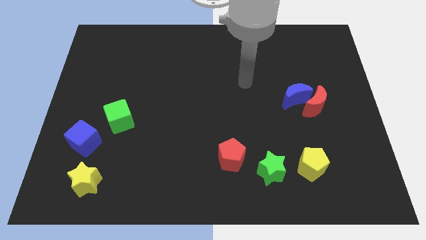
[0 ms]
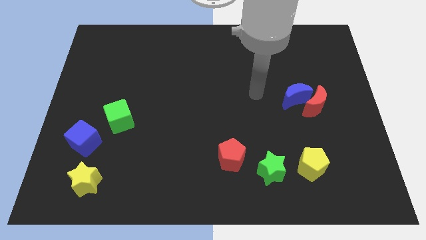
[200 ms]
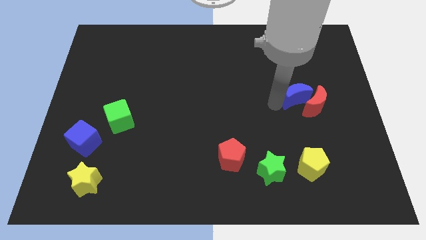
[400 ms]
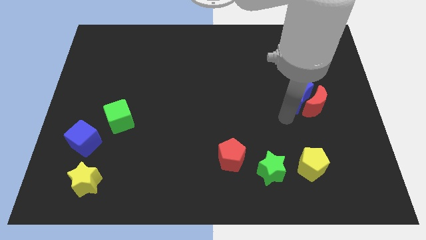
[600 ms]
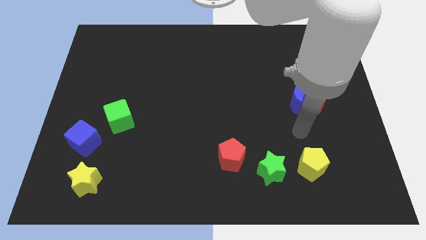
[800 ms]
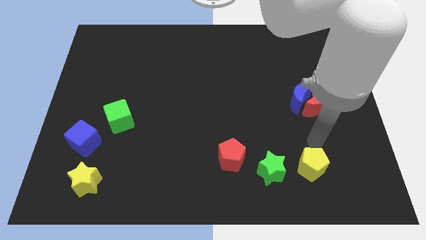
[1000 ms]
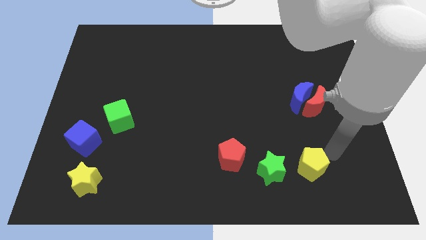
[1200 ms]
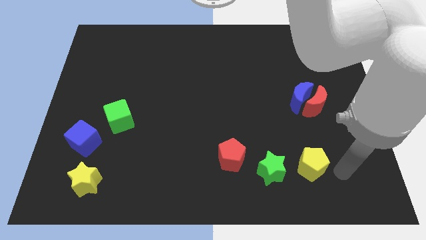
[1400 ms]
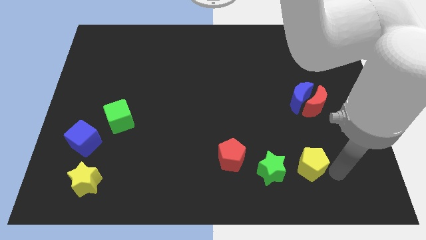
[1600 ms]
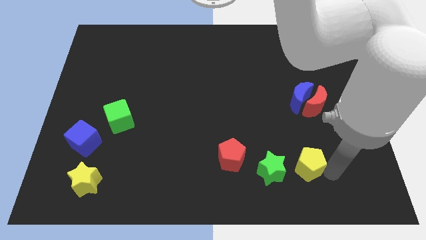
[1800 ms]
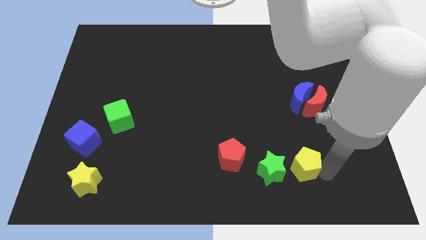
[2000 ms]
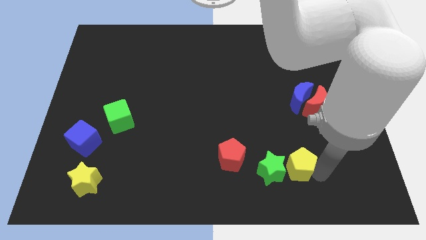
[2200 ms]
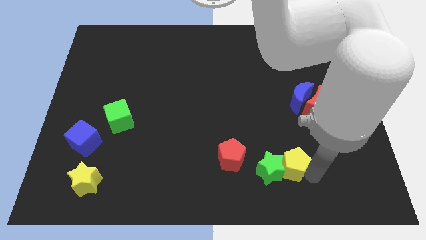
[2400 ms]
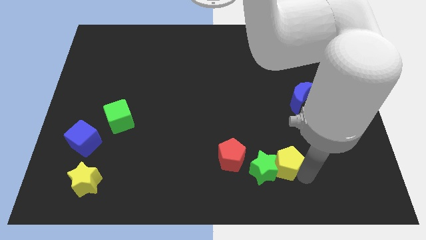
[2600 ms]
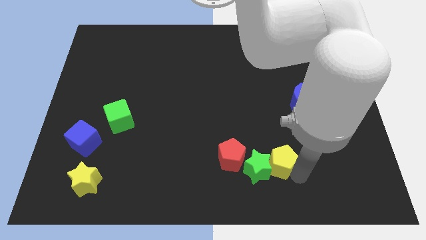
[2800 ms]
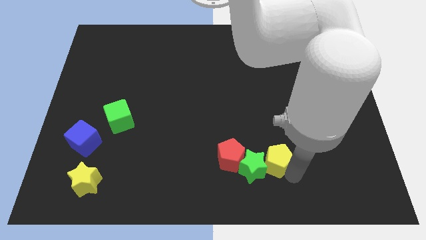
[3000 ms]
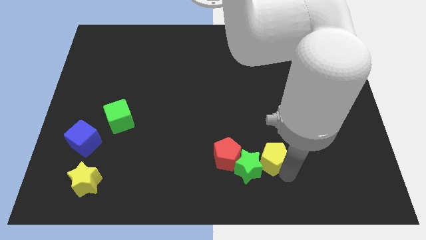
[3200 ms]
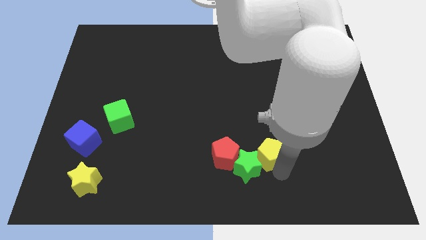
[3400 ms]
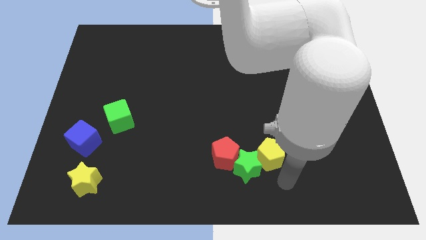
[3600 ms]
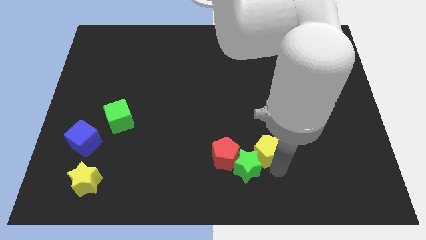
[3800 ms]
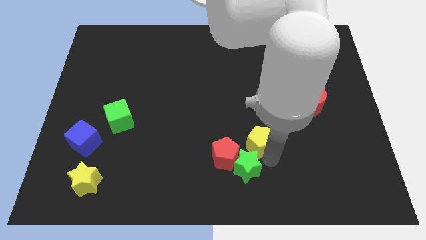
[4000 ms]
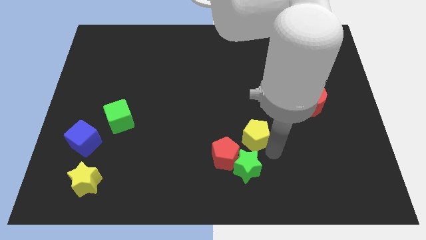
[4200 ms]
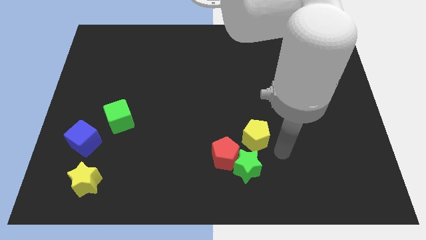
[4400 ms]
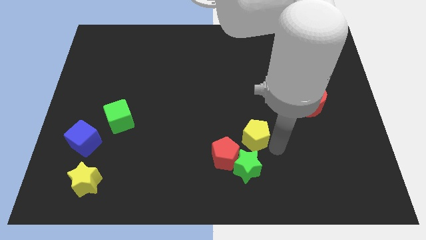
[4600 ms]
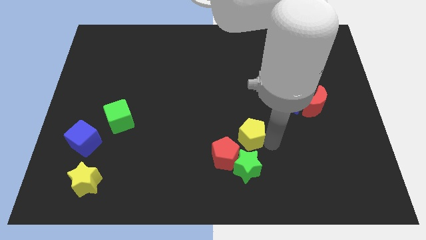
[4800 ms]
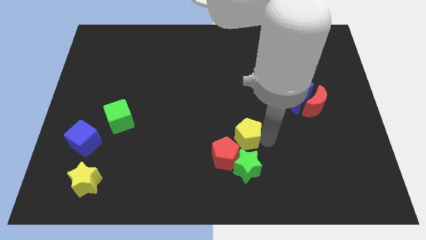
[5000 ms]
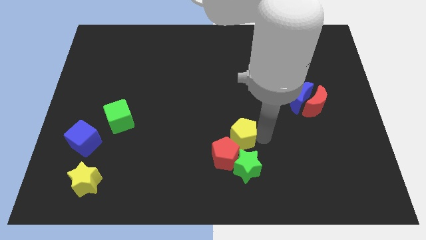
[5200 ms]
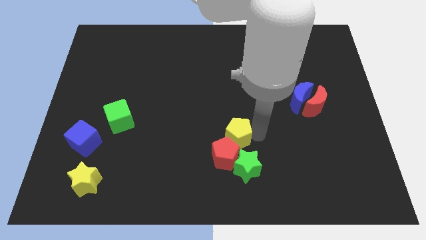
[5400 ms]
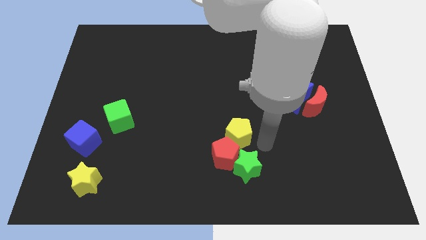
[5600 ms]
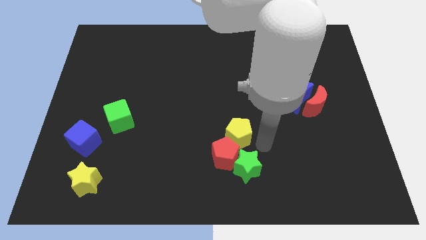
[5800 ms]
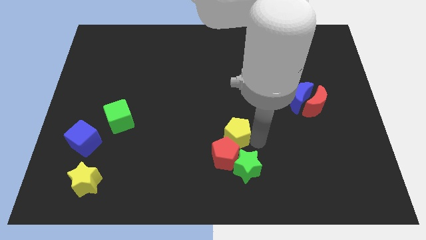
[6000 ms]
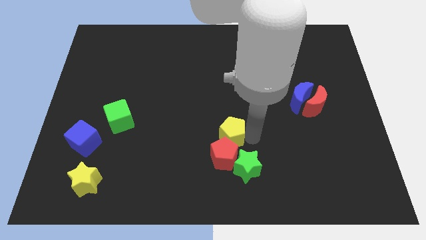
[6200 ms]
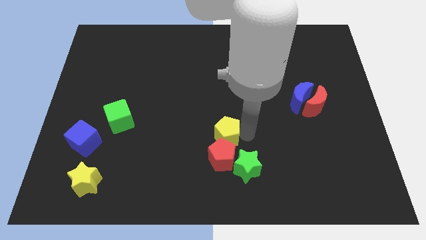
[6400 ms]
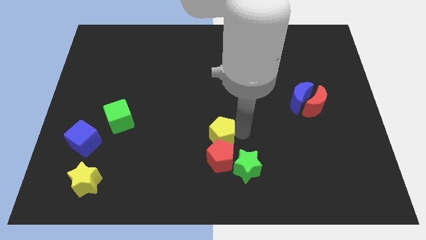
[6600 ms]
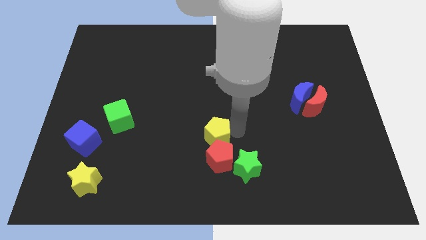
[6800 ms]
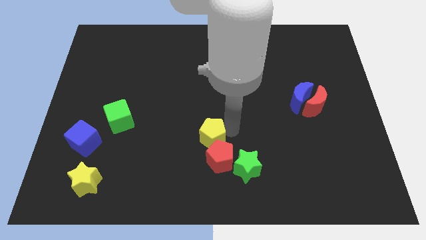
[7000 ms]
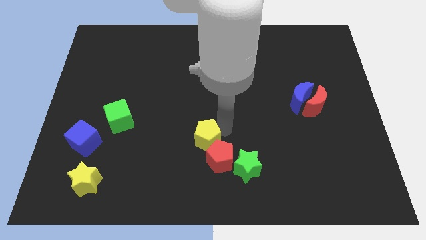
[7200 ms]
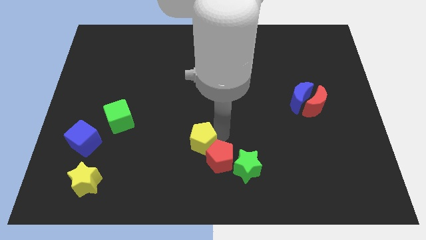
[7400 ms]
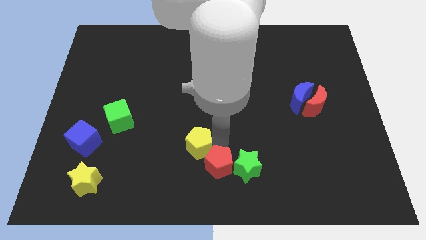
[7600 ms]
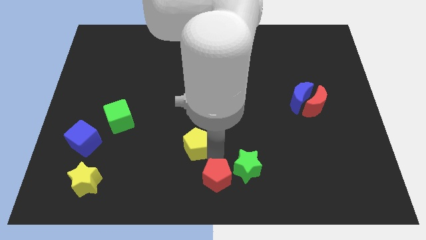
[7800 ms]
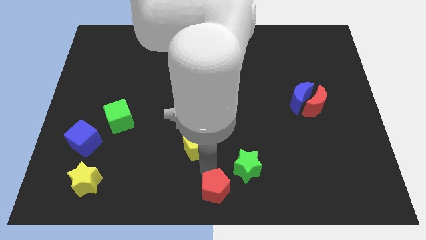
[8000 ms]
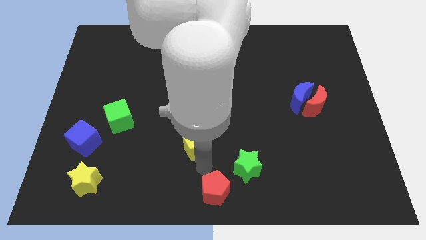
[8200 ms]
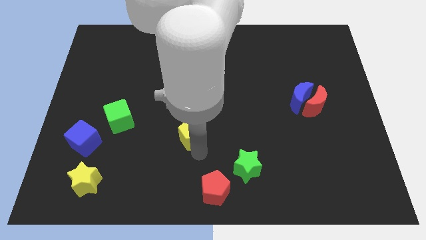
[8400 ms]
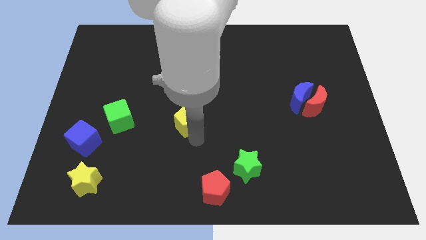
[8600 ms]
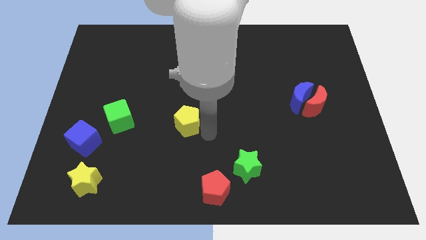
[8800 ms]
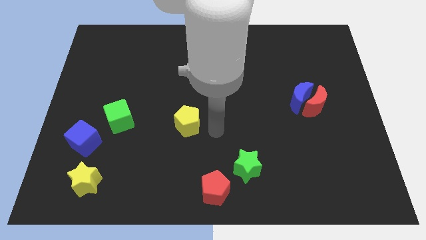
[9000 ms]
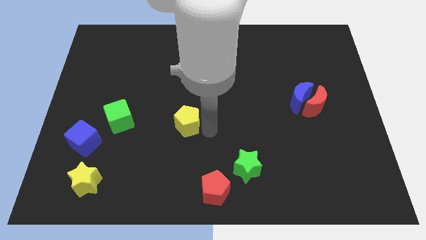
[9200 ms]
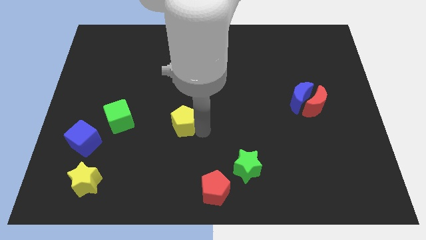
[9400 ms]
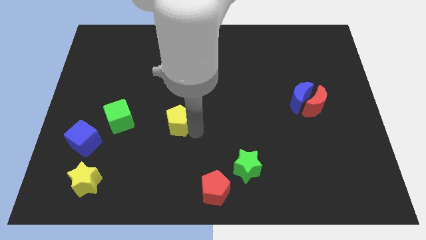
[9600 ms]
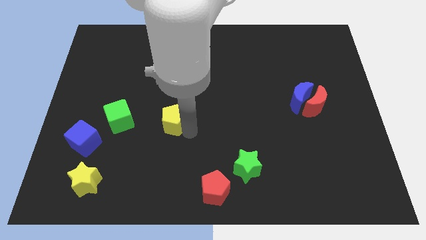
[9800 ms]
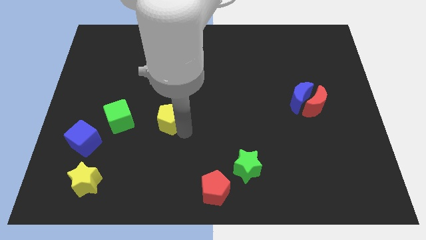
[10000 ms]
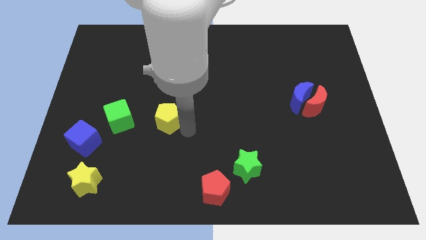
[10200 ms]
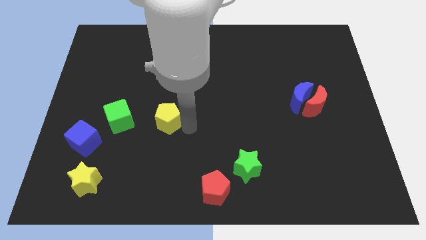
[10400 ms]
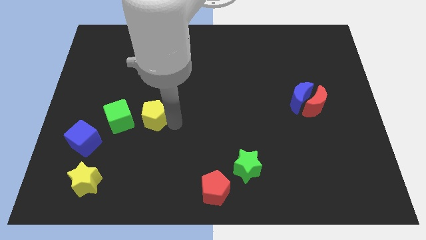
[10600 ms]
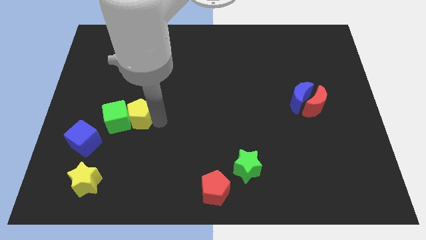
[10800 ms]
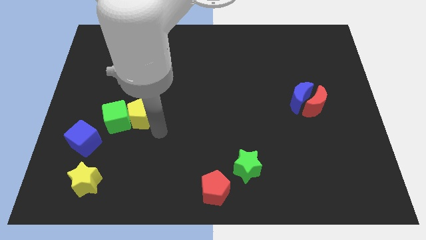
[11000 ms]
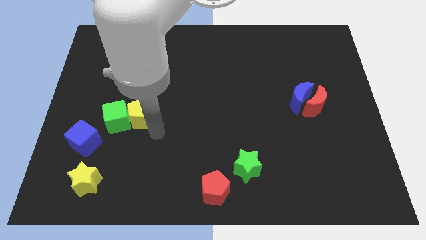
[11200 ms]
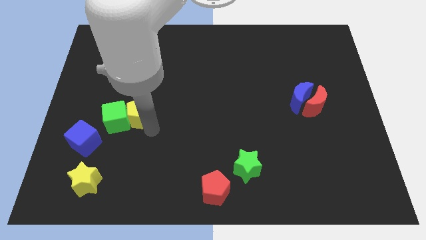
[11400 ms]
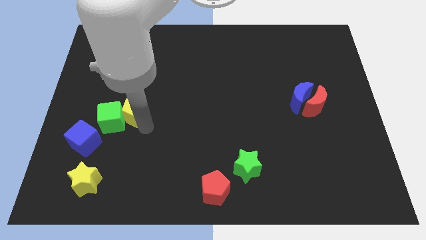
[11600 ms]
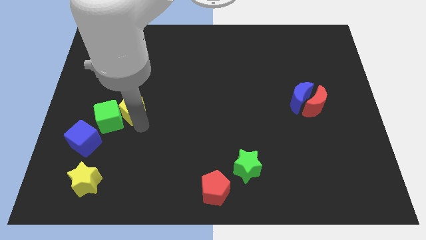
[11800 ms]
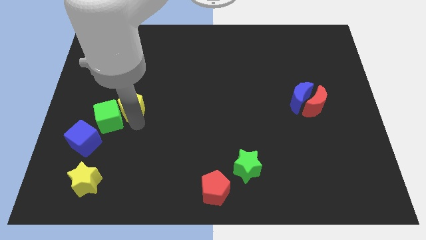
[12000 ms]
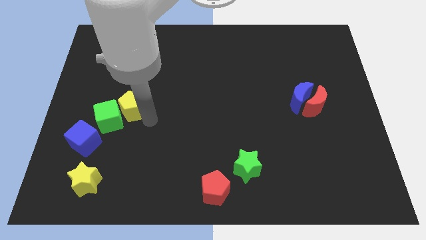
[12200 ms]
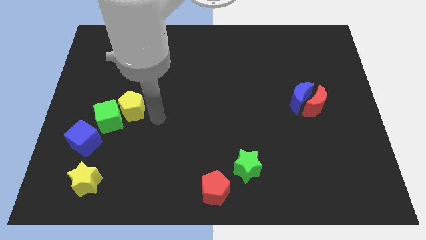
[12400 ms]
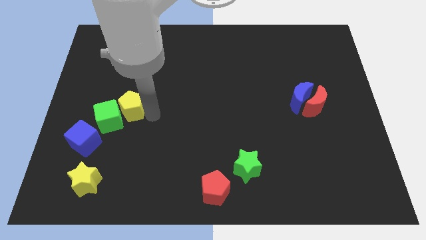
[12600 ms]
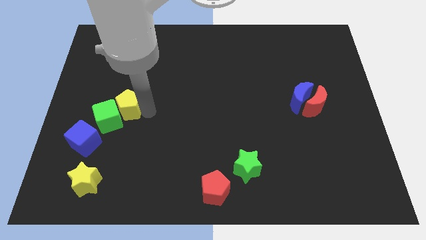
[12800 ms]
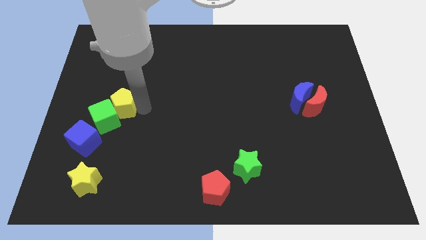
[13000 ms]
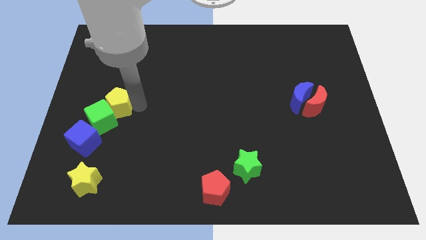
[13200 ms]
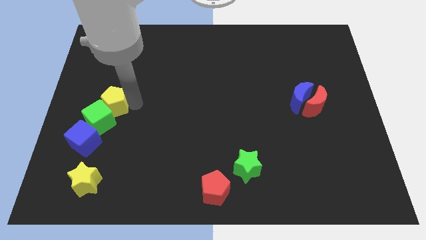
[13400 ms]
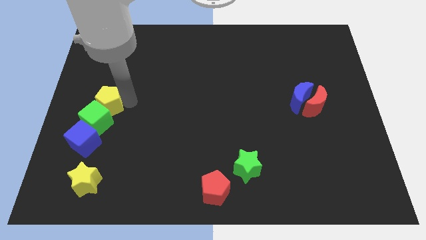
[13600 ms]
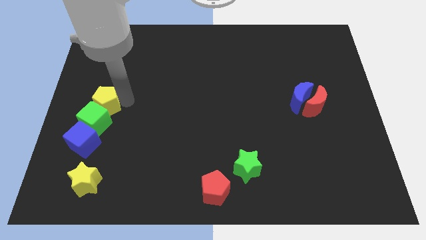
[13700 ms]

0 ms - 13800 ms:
push the yellow pentagon to the left side of the board
